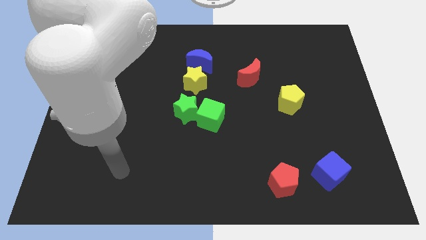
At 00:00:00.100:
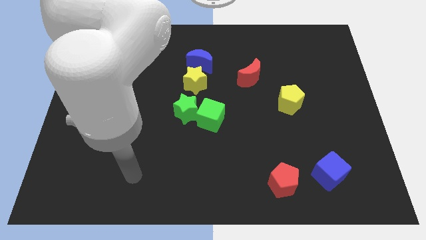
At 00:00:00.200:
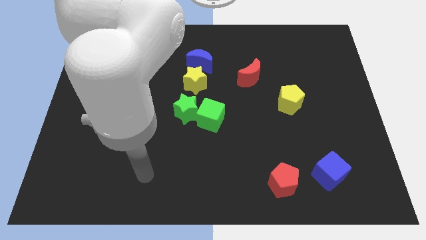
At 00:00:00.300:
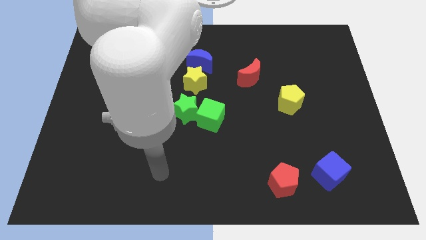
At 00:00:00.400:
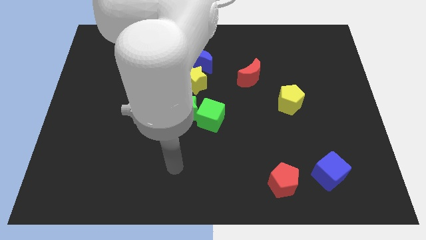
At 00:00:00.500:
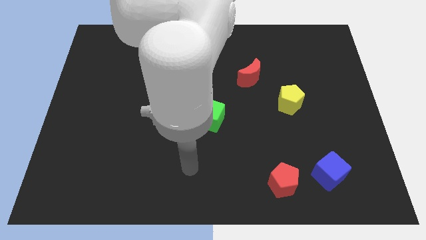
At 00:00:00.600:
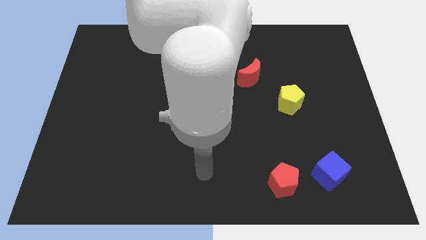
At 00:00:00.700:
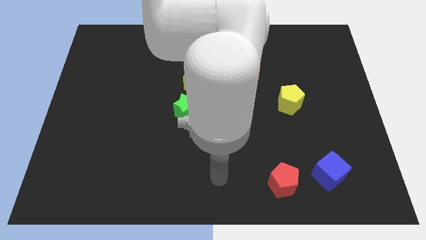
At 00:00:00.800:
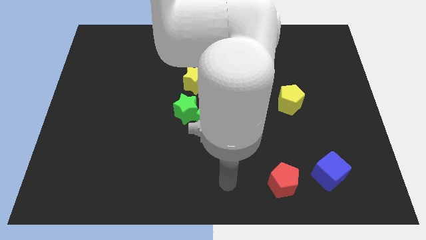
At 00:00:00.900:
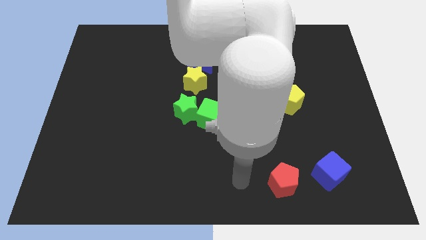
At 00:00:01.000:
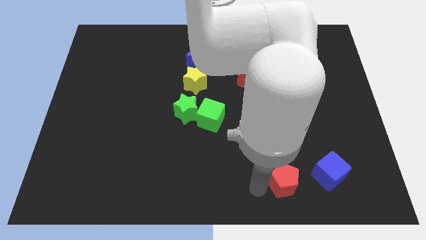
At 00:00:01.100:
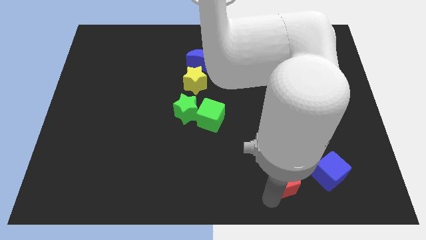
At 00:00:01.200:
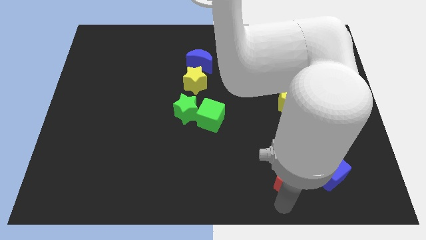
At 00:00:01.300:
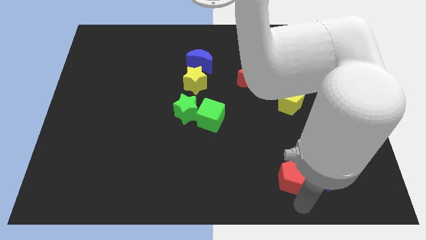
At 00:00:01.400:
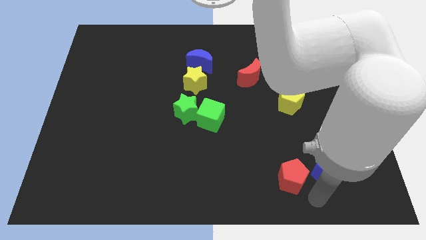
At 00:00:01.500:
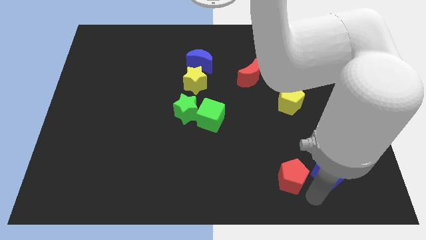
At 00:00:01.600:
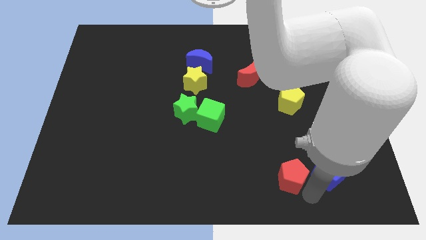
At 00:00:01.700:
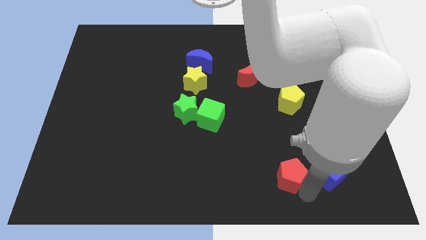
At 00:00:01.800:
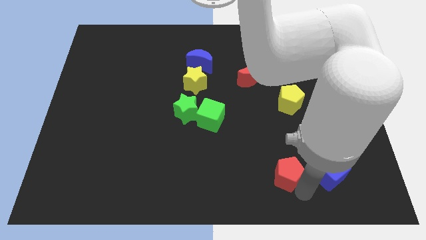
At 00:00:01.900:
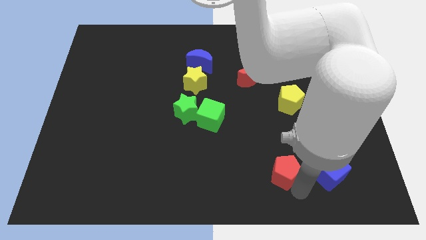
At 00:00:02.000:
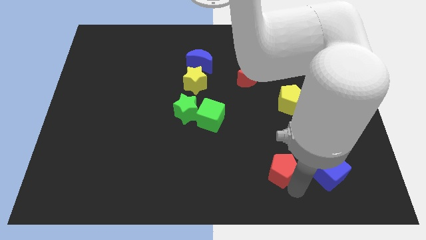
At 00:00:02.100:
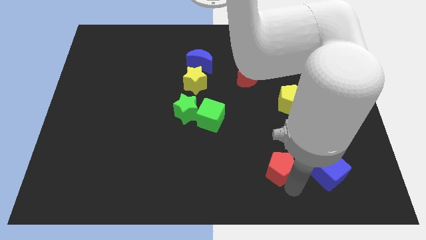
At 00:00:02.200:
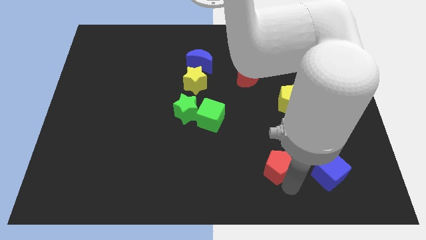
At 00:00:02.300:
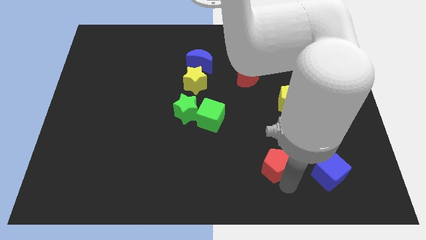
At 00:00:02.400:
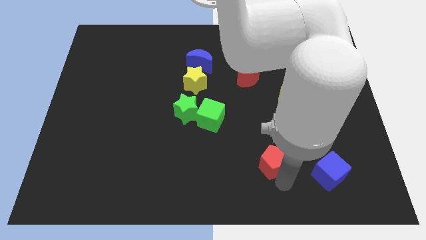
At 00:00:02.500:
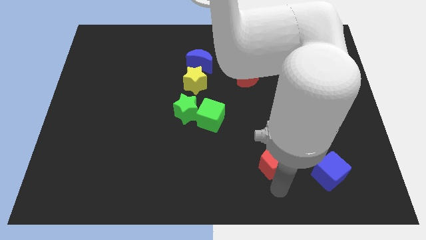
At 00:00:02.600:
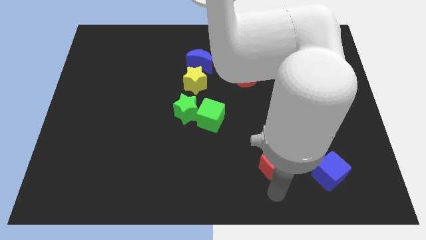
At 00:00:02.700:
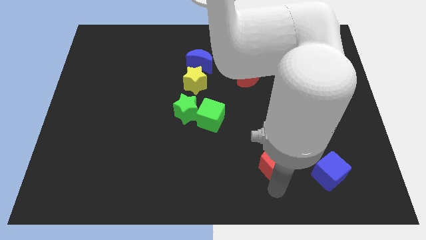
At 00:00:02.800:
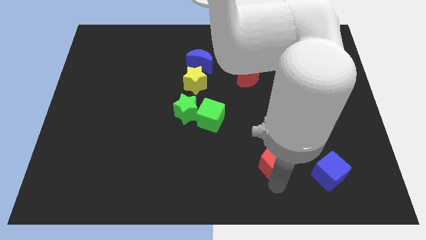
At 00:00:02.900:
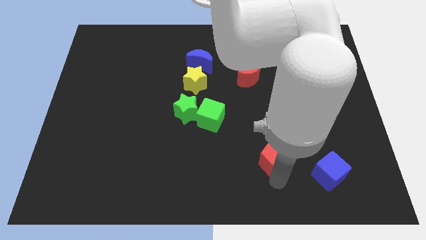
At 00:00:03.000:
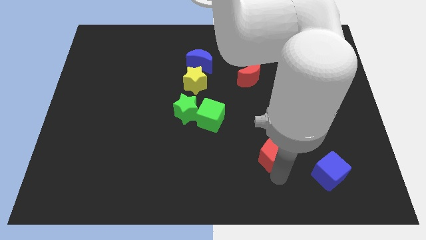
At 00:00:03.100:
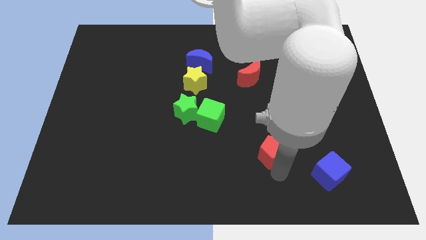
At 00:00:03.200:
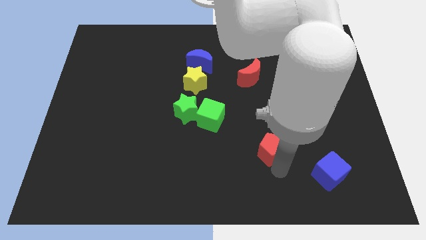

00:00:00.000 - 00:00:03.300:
slide the red pentagon slightly up

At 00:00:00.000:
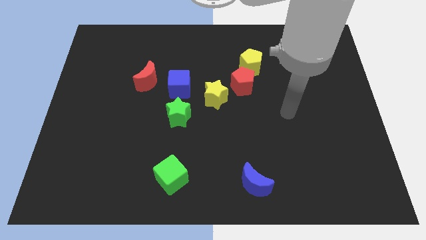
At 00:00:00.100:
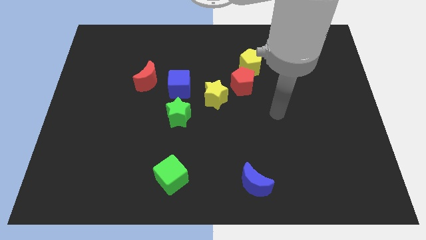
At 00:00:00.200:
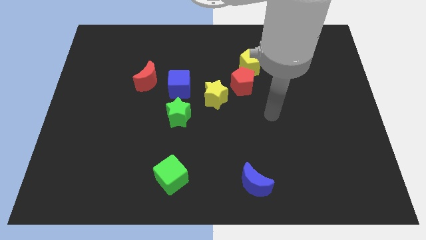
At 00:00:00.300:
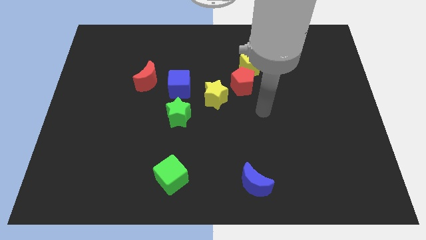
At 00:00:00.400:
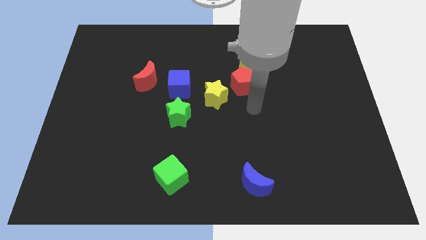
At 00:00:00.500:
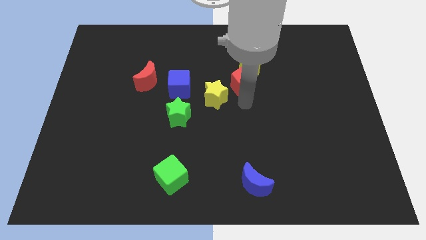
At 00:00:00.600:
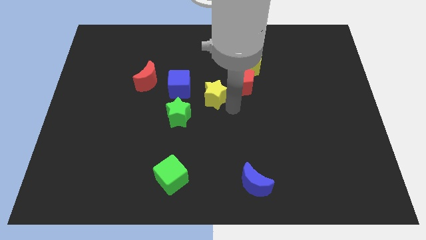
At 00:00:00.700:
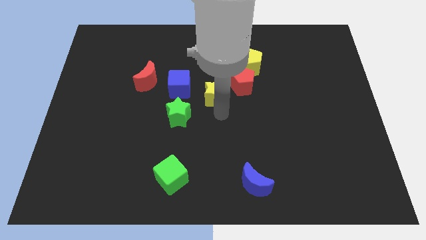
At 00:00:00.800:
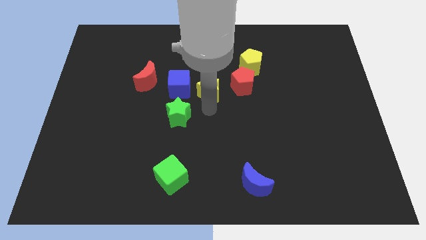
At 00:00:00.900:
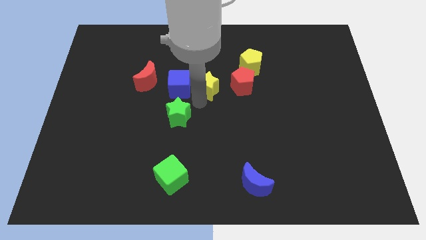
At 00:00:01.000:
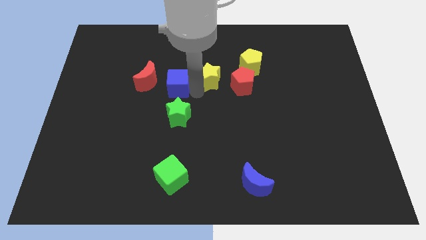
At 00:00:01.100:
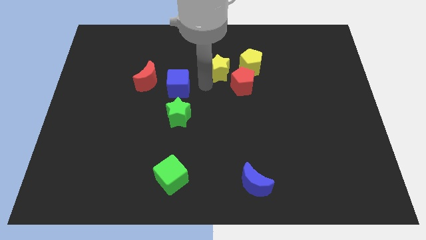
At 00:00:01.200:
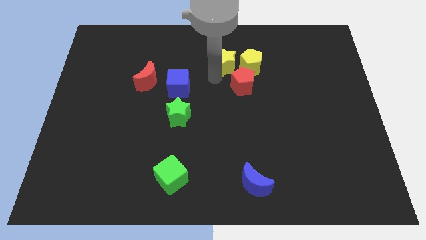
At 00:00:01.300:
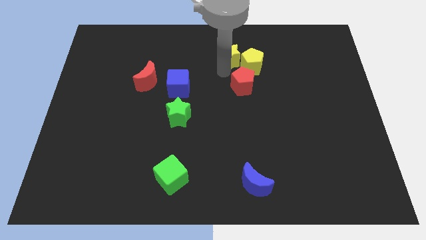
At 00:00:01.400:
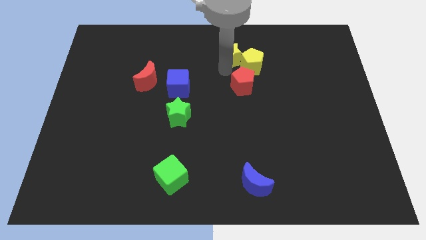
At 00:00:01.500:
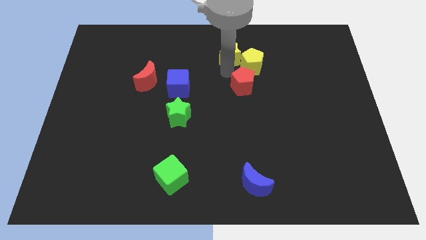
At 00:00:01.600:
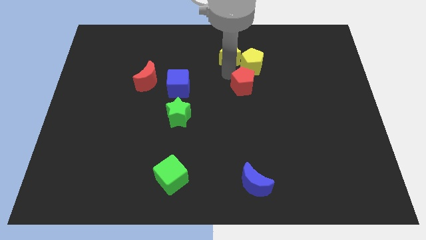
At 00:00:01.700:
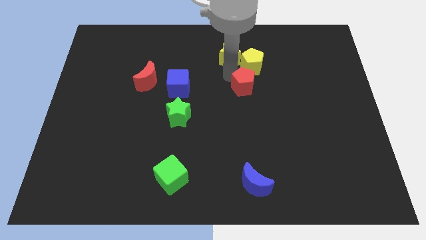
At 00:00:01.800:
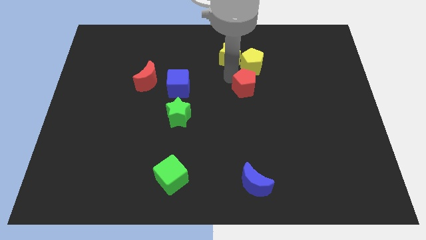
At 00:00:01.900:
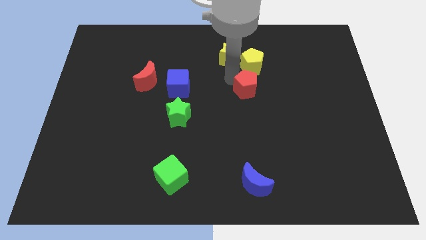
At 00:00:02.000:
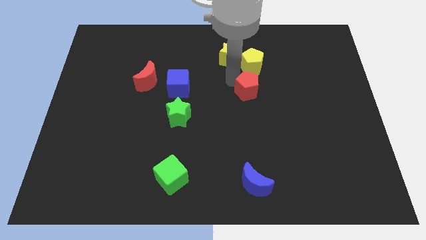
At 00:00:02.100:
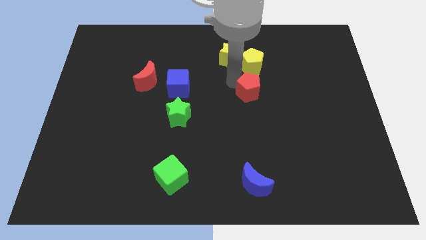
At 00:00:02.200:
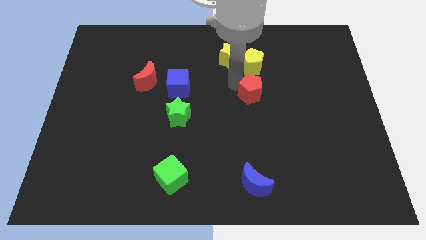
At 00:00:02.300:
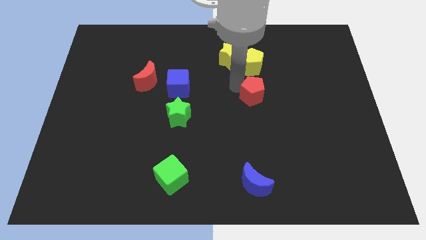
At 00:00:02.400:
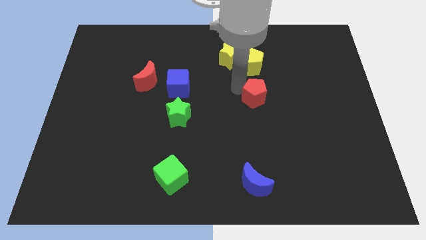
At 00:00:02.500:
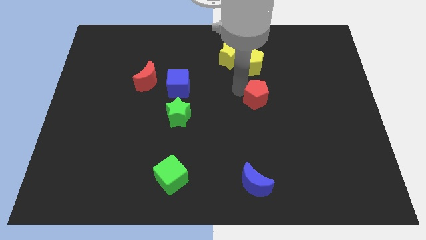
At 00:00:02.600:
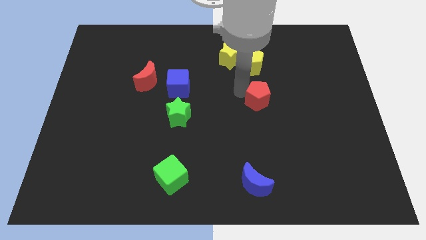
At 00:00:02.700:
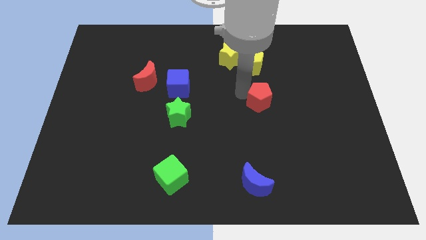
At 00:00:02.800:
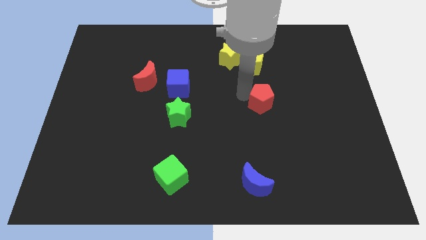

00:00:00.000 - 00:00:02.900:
slide the red pentagon somewhat downwards and to the right diagonally

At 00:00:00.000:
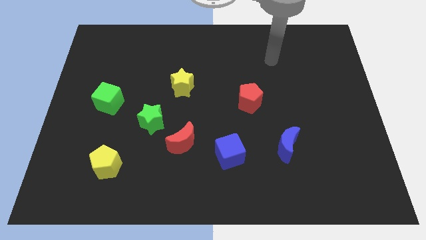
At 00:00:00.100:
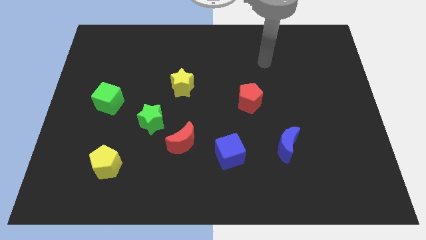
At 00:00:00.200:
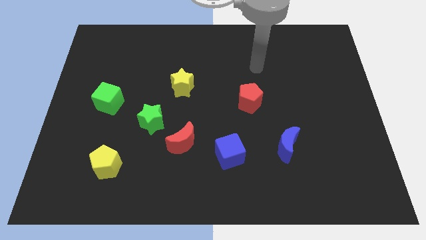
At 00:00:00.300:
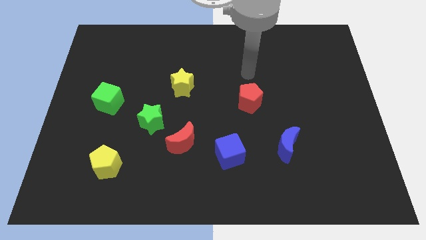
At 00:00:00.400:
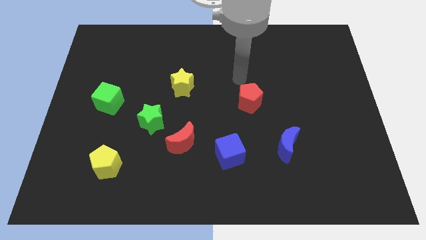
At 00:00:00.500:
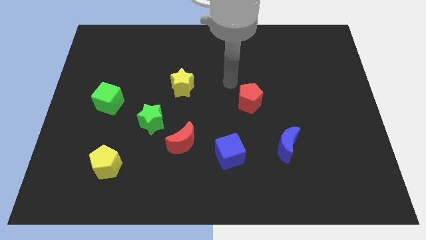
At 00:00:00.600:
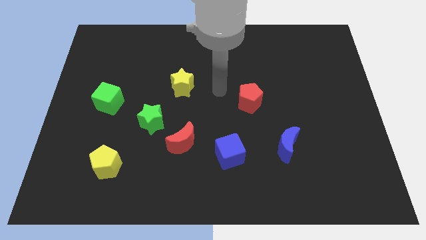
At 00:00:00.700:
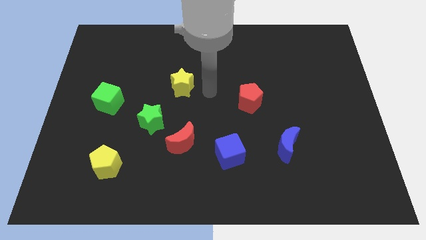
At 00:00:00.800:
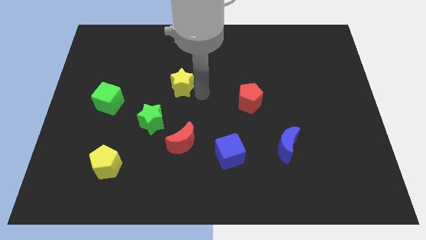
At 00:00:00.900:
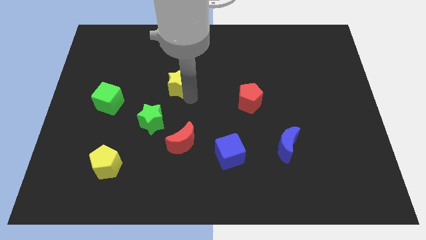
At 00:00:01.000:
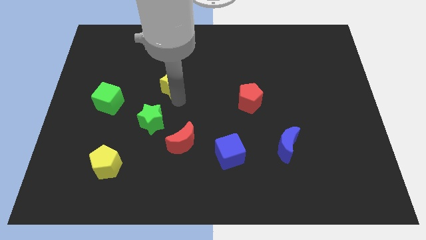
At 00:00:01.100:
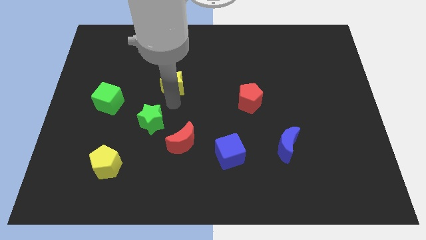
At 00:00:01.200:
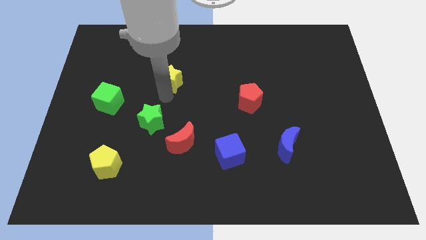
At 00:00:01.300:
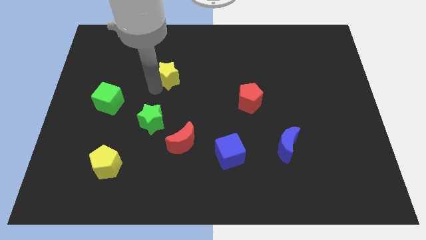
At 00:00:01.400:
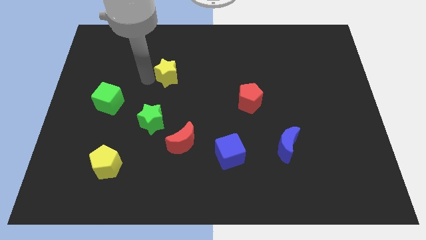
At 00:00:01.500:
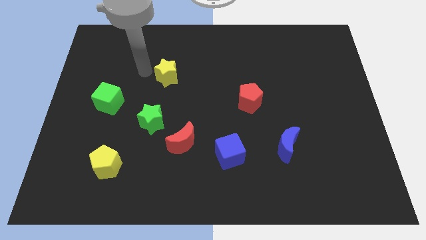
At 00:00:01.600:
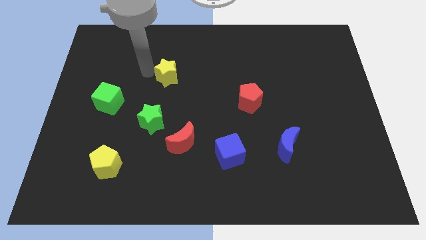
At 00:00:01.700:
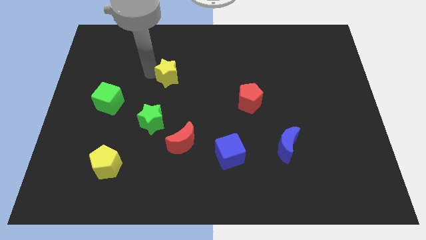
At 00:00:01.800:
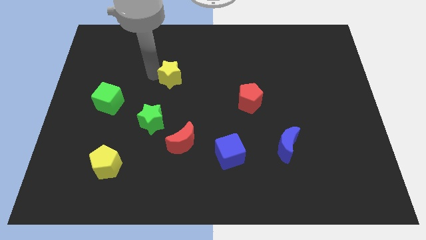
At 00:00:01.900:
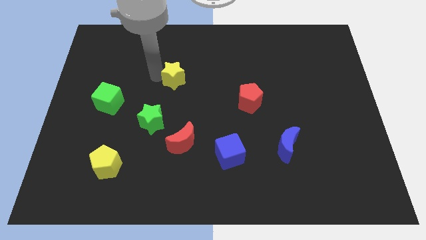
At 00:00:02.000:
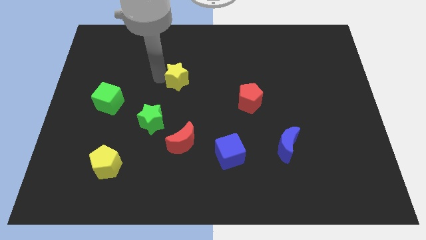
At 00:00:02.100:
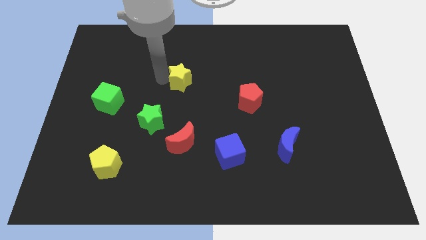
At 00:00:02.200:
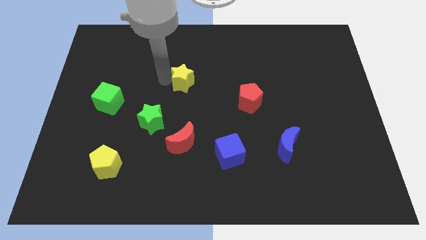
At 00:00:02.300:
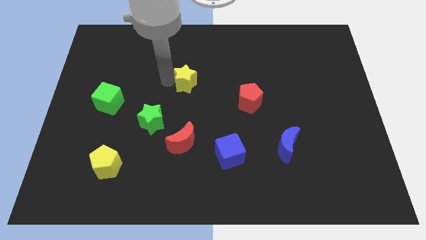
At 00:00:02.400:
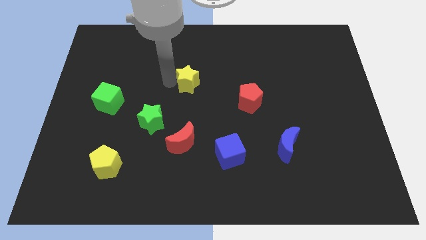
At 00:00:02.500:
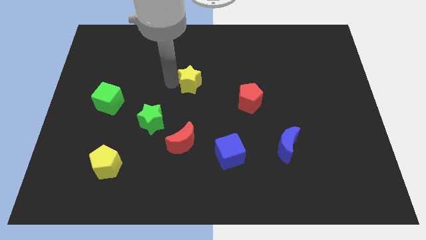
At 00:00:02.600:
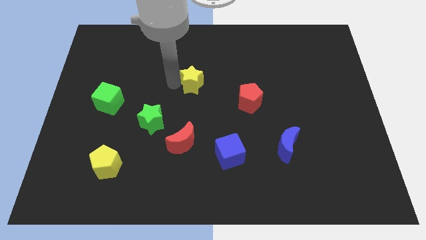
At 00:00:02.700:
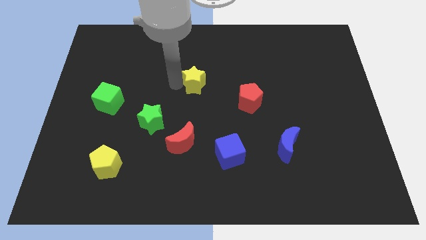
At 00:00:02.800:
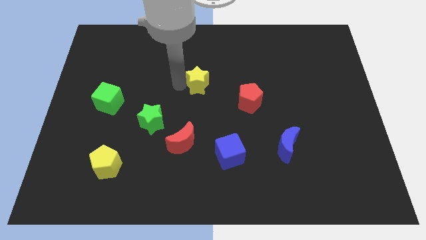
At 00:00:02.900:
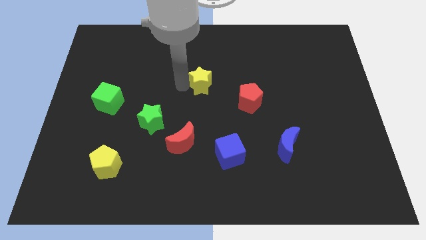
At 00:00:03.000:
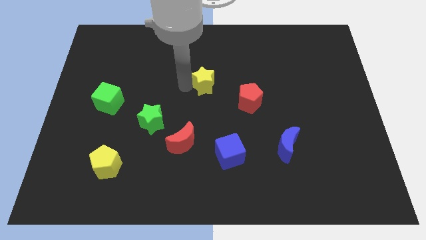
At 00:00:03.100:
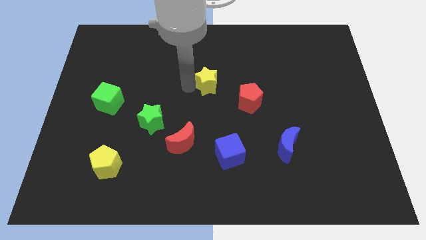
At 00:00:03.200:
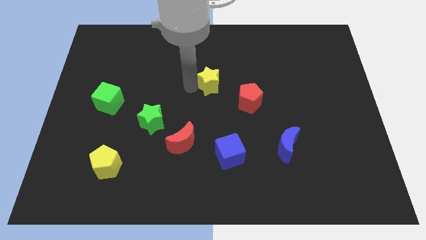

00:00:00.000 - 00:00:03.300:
push the yellow star a bit to the right
